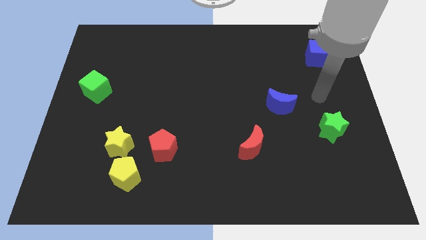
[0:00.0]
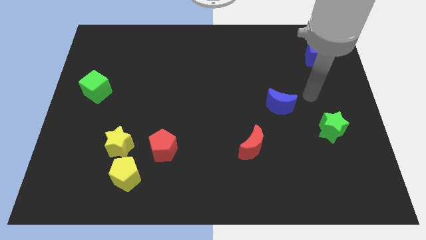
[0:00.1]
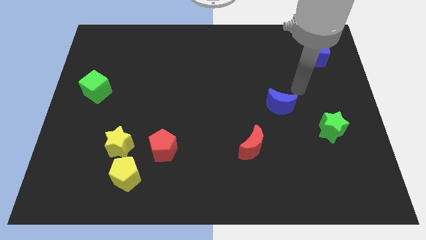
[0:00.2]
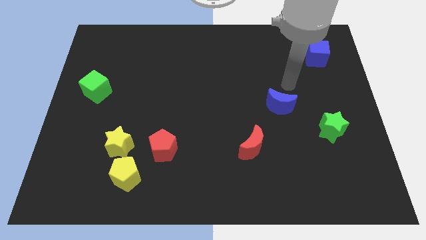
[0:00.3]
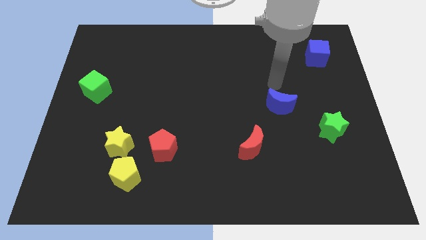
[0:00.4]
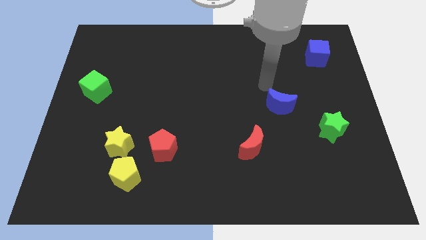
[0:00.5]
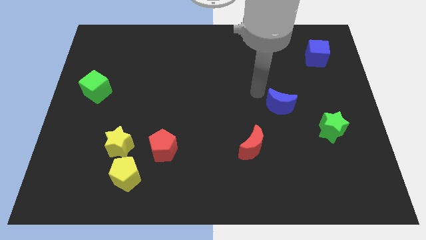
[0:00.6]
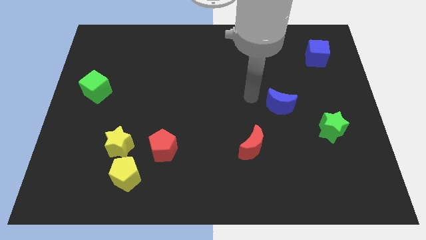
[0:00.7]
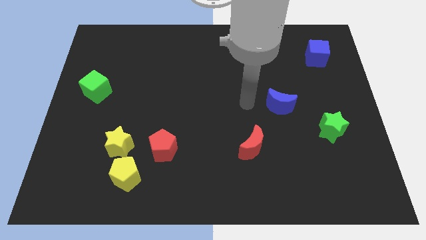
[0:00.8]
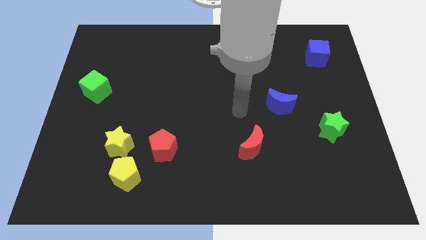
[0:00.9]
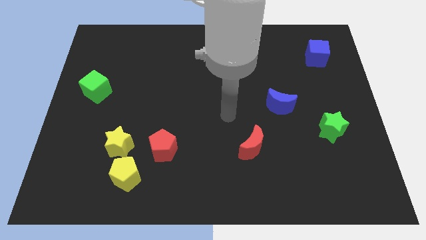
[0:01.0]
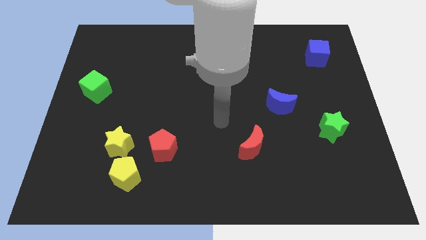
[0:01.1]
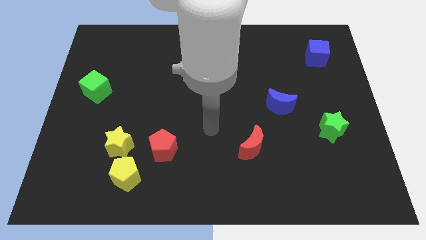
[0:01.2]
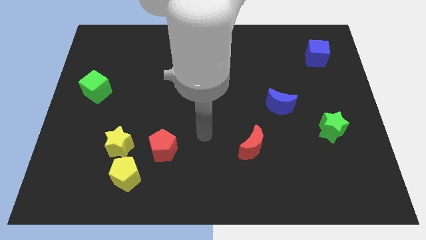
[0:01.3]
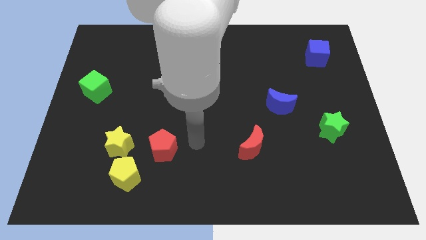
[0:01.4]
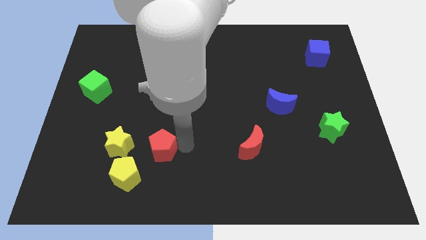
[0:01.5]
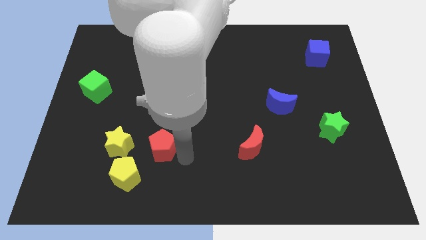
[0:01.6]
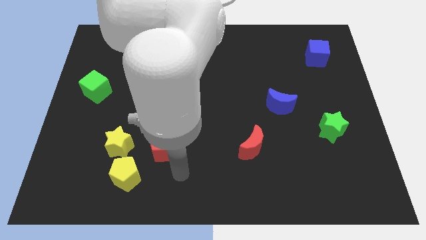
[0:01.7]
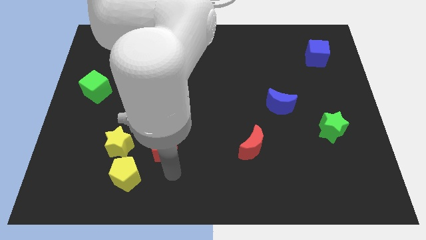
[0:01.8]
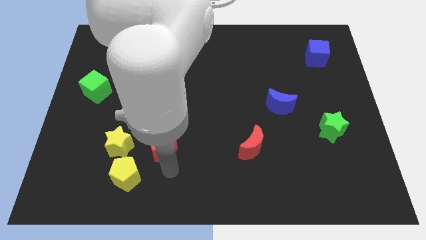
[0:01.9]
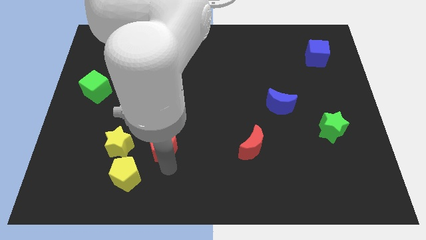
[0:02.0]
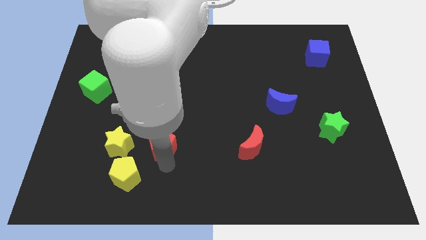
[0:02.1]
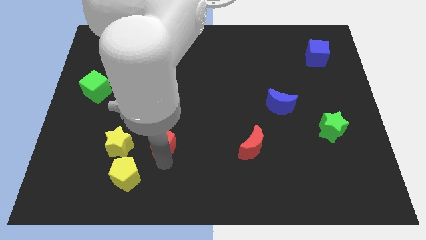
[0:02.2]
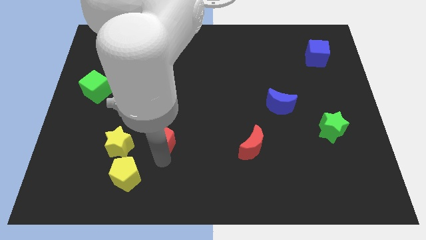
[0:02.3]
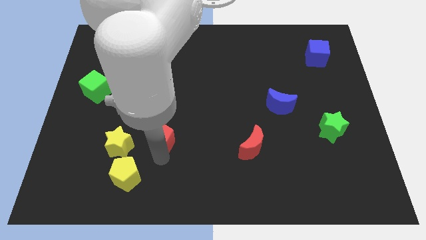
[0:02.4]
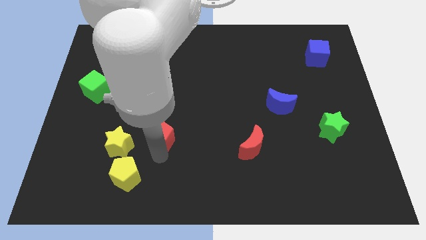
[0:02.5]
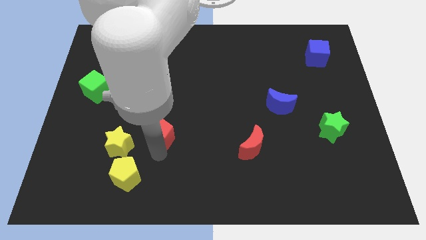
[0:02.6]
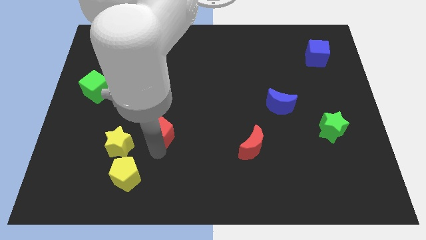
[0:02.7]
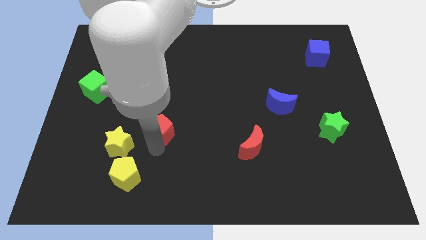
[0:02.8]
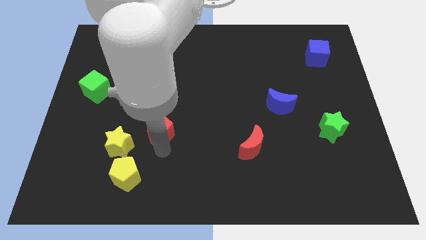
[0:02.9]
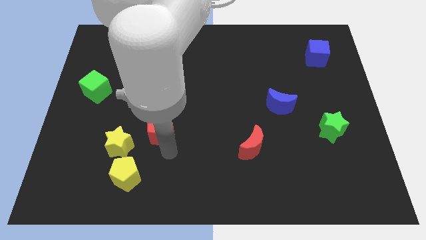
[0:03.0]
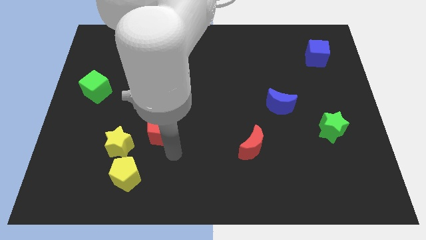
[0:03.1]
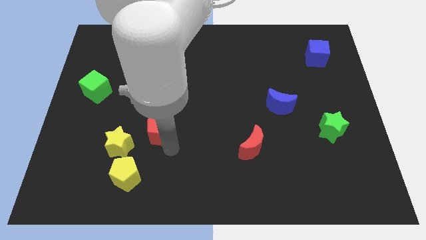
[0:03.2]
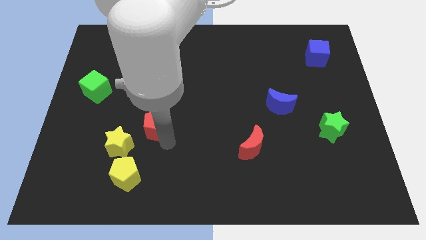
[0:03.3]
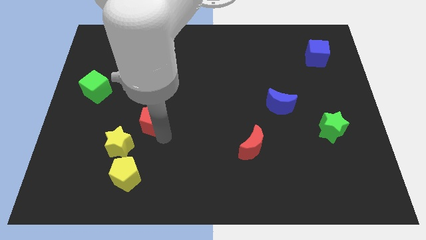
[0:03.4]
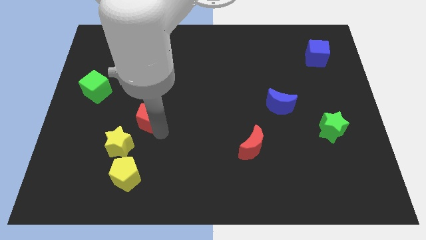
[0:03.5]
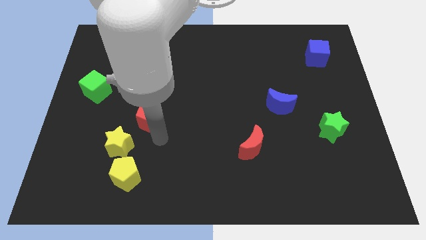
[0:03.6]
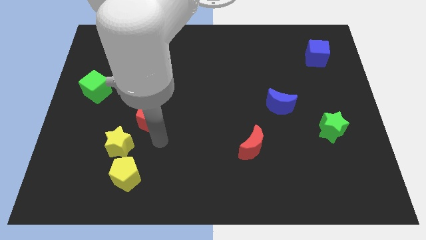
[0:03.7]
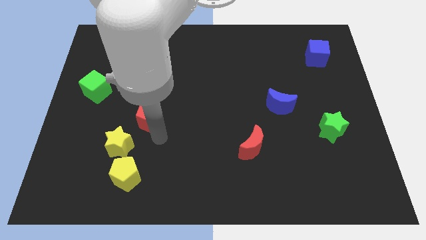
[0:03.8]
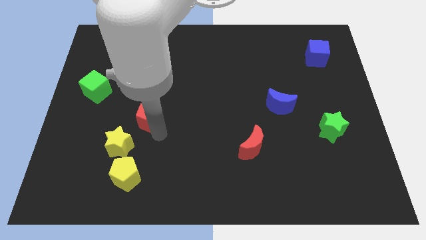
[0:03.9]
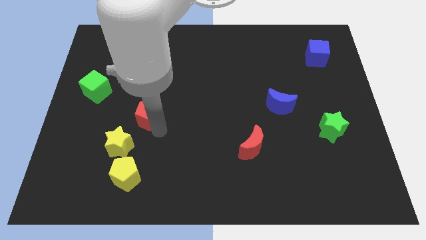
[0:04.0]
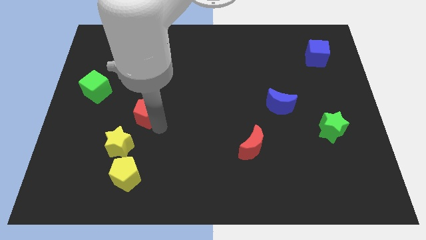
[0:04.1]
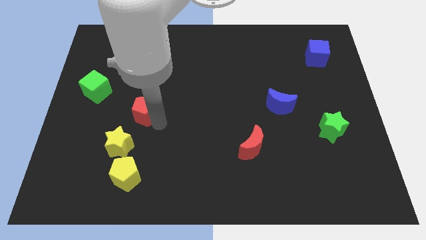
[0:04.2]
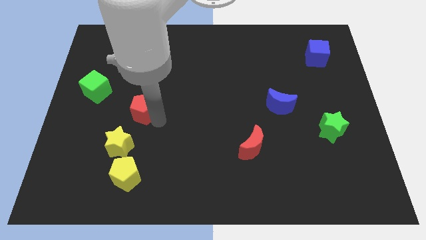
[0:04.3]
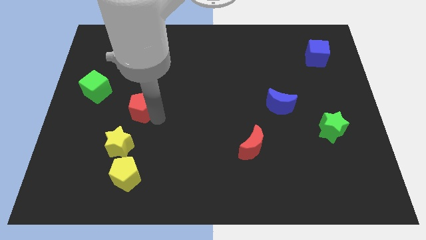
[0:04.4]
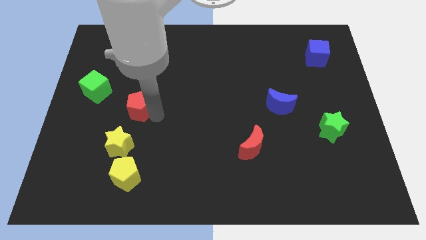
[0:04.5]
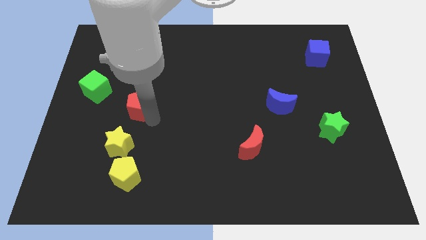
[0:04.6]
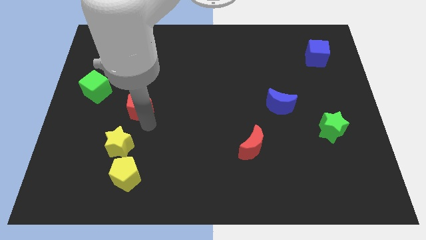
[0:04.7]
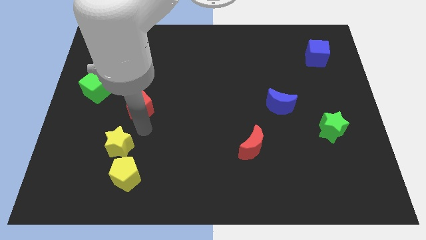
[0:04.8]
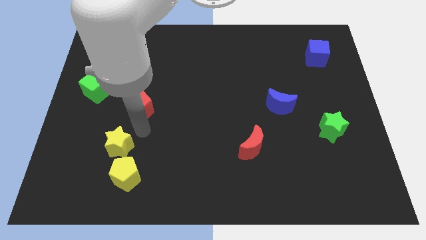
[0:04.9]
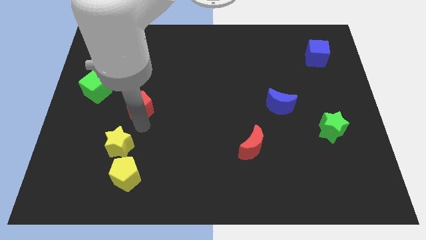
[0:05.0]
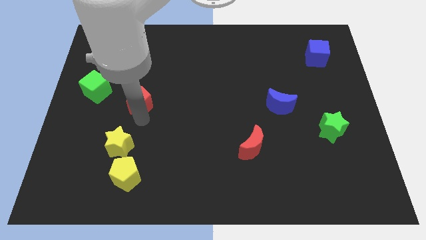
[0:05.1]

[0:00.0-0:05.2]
push the red pentagon to the right of the green cube

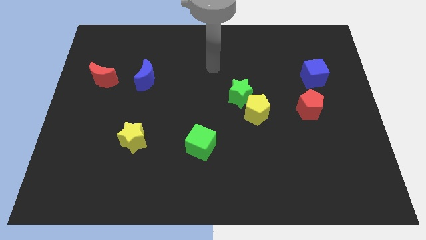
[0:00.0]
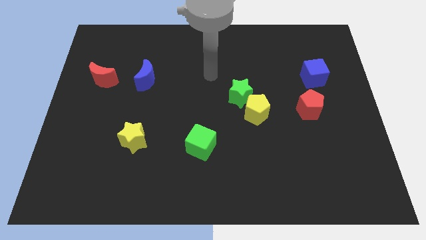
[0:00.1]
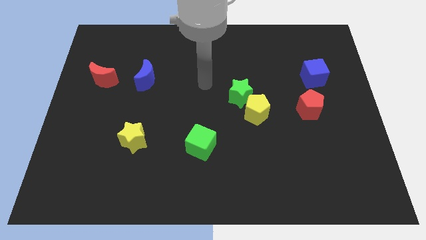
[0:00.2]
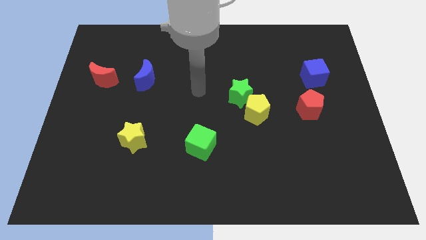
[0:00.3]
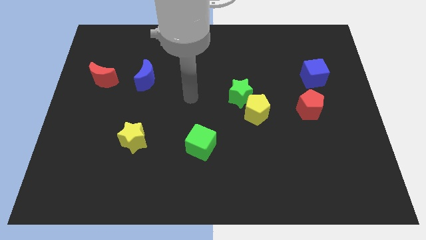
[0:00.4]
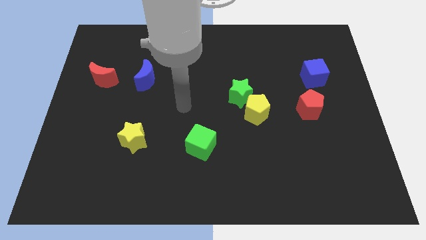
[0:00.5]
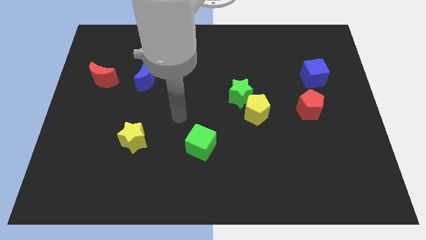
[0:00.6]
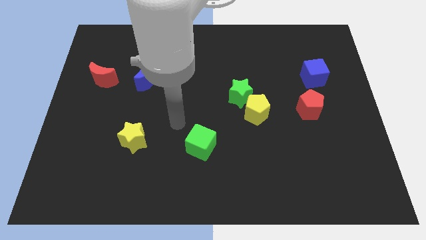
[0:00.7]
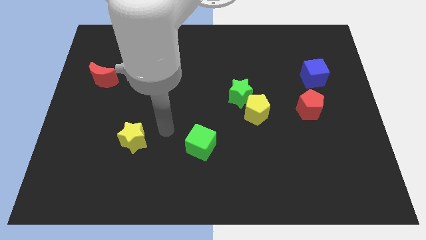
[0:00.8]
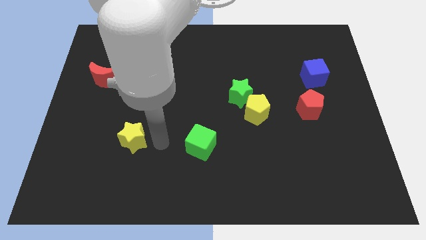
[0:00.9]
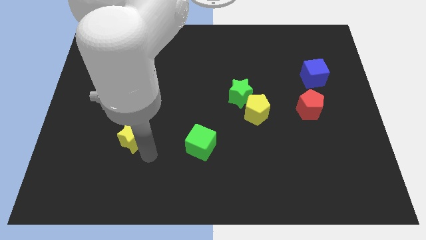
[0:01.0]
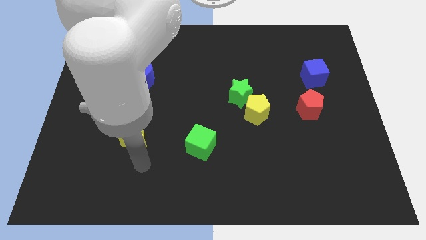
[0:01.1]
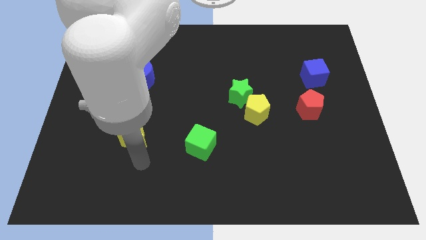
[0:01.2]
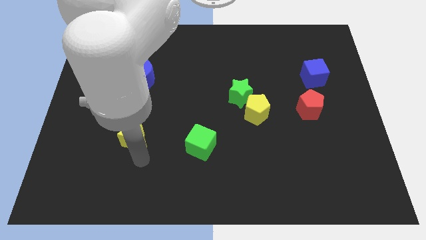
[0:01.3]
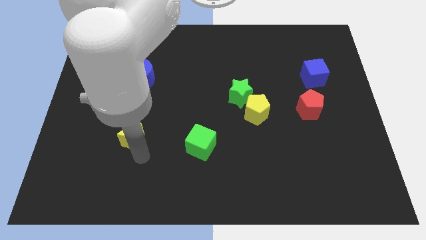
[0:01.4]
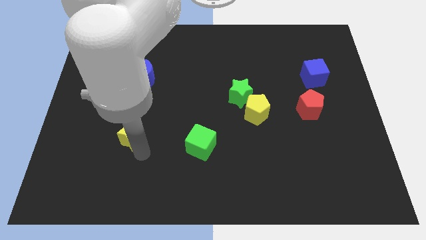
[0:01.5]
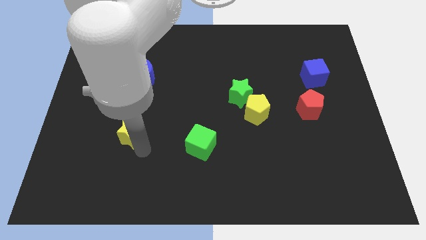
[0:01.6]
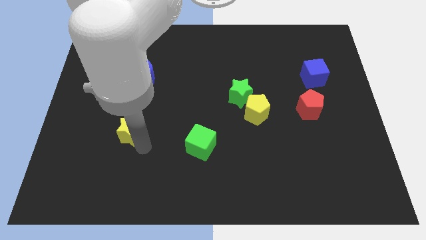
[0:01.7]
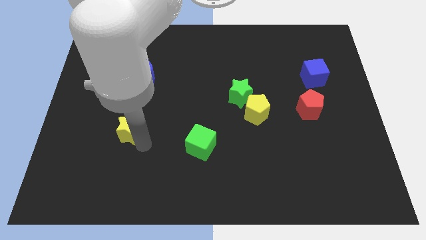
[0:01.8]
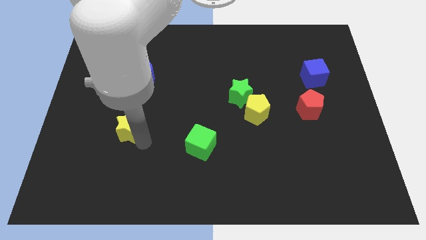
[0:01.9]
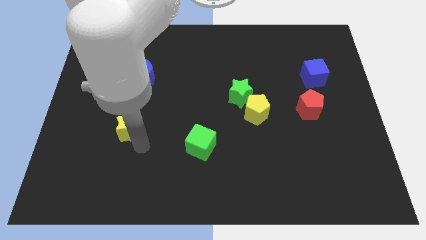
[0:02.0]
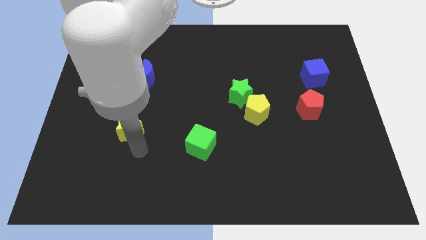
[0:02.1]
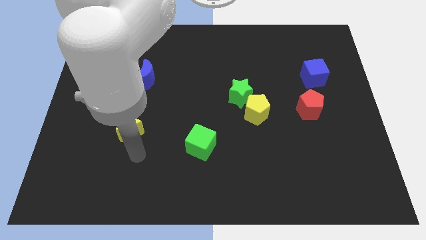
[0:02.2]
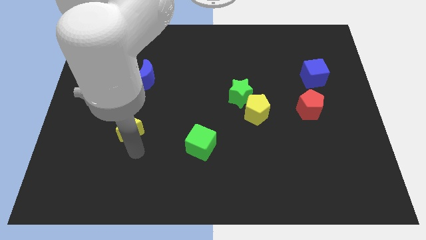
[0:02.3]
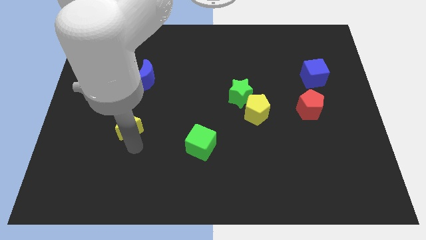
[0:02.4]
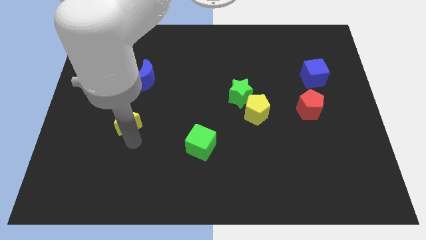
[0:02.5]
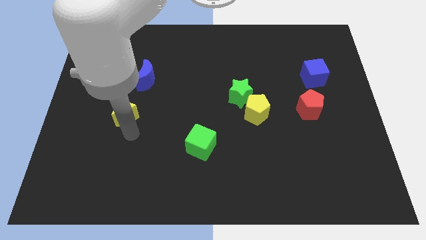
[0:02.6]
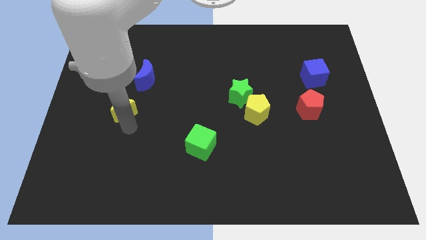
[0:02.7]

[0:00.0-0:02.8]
slide the yellow star to the bottom right of the red moon
